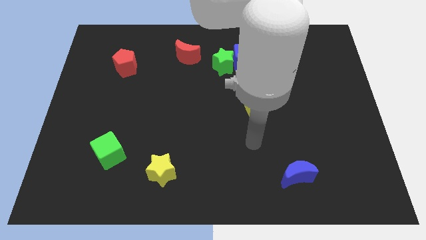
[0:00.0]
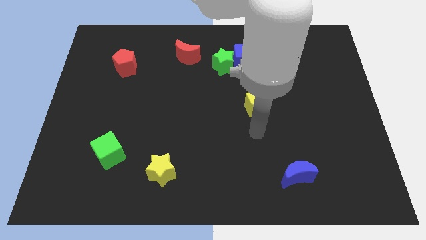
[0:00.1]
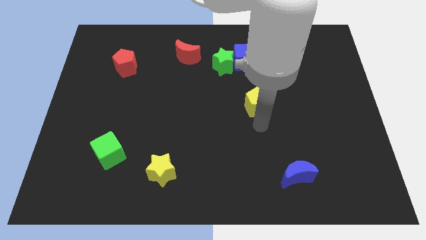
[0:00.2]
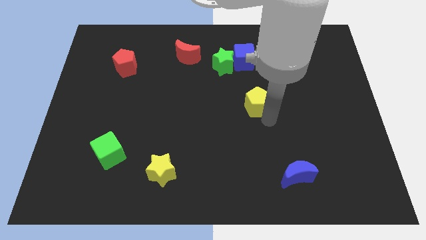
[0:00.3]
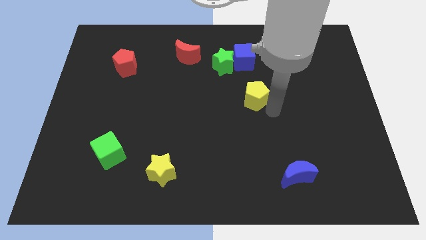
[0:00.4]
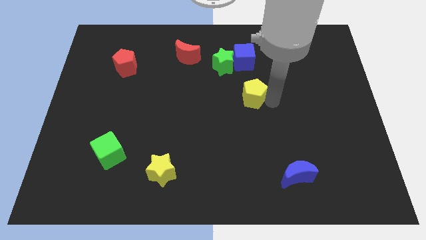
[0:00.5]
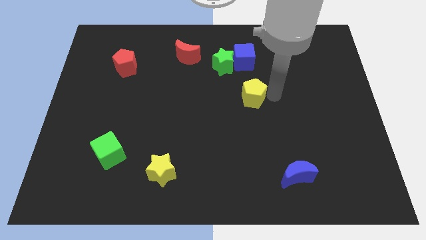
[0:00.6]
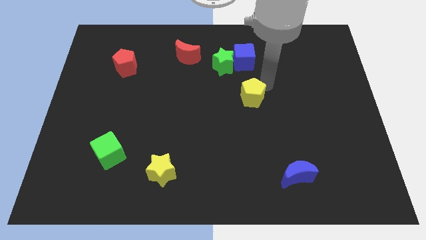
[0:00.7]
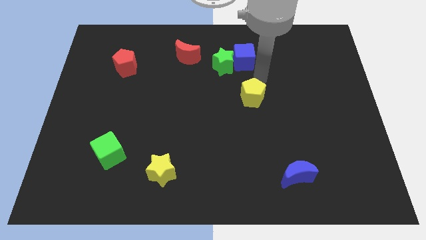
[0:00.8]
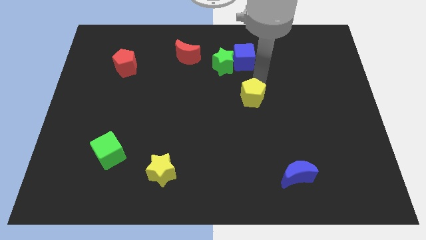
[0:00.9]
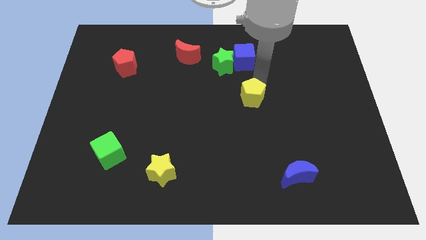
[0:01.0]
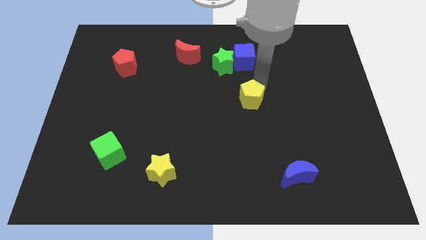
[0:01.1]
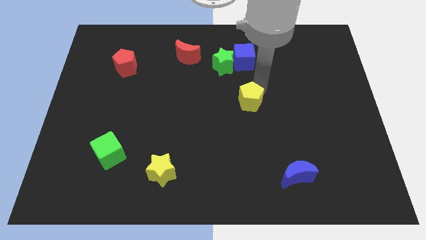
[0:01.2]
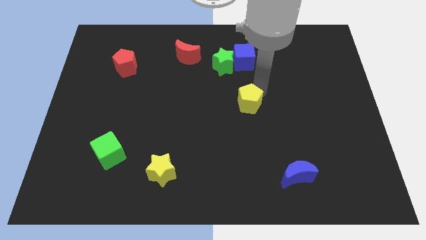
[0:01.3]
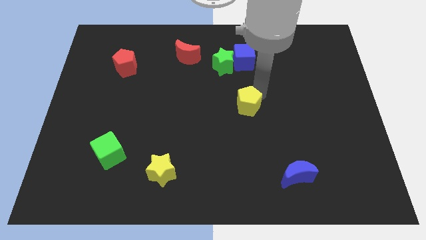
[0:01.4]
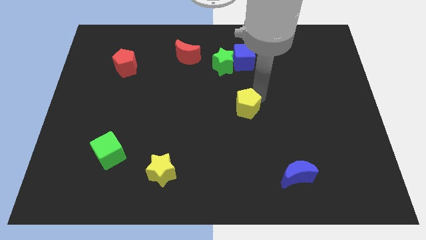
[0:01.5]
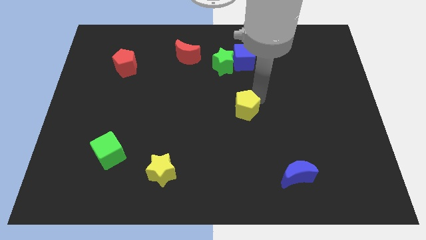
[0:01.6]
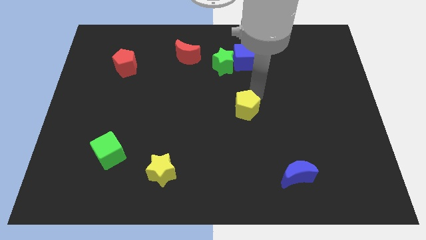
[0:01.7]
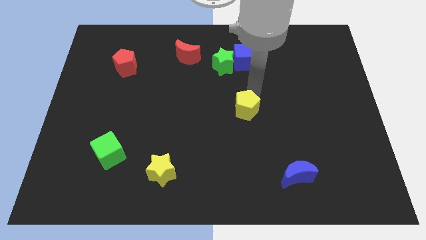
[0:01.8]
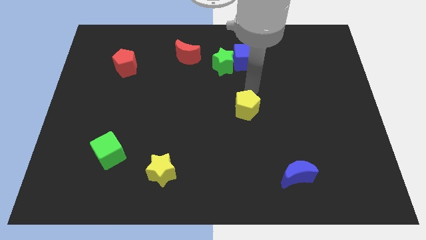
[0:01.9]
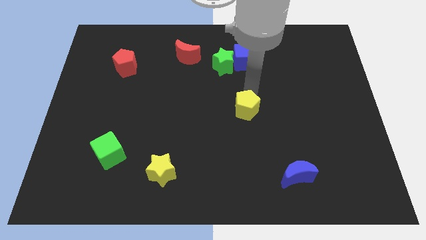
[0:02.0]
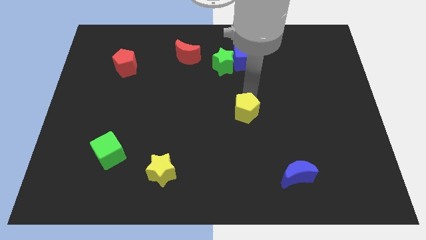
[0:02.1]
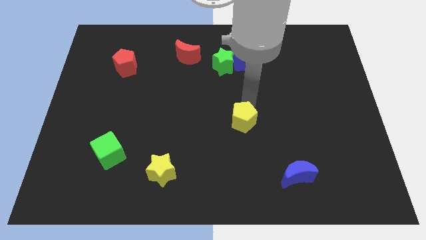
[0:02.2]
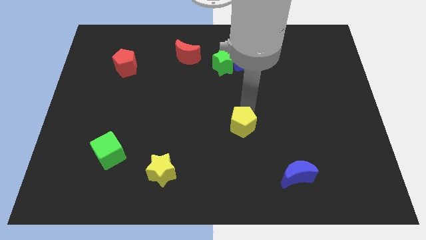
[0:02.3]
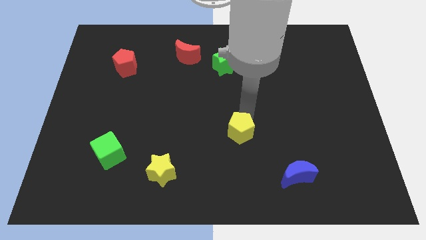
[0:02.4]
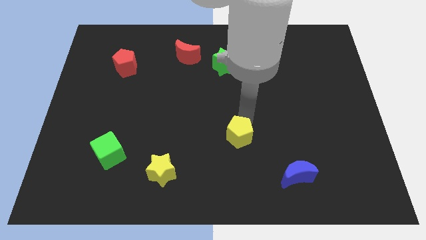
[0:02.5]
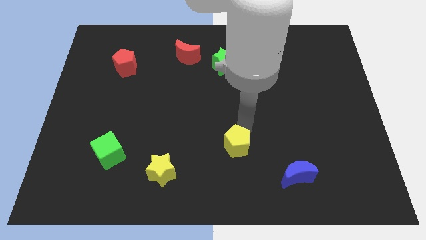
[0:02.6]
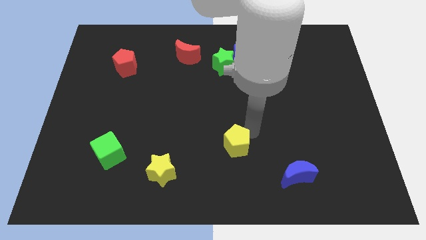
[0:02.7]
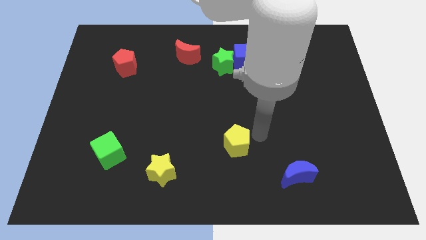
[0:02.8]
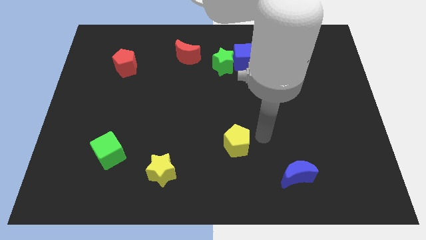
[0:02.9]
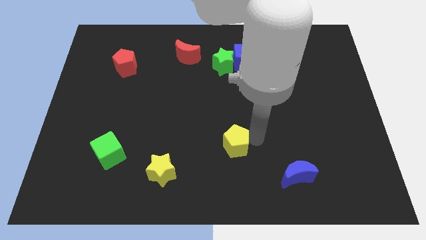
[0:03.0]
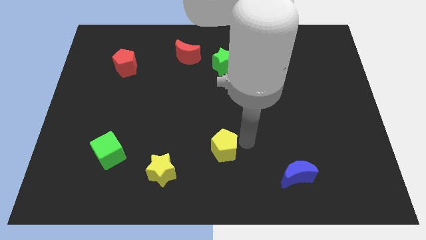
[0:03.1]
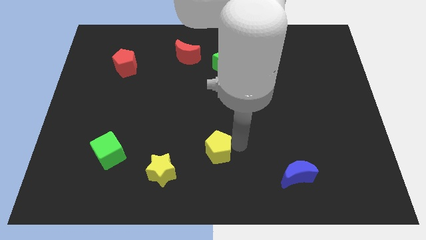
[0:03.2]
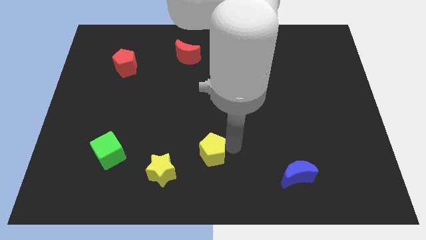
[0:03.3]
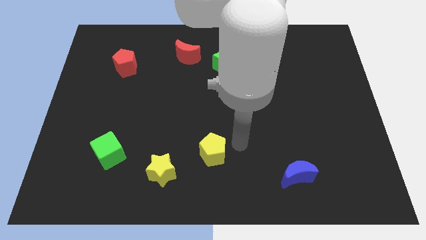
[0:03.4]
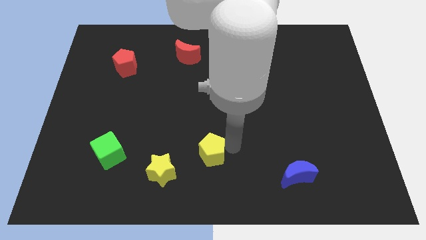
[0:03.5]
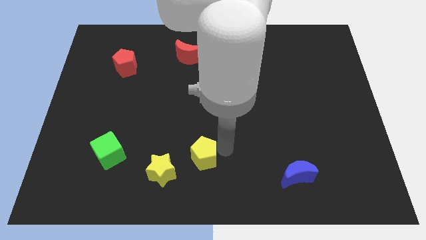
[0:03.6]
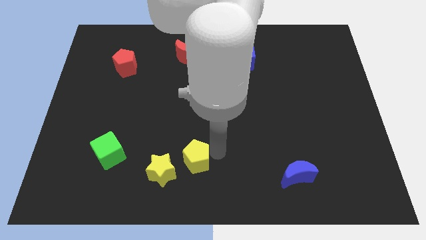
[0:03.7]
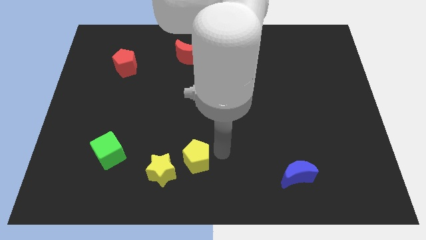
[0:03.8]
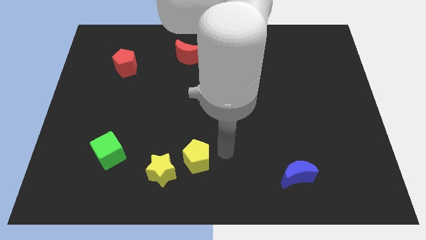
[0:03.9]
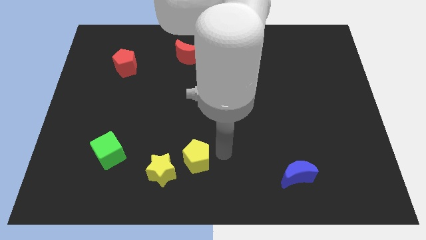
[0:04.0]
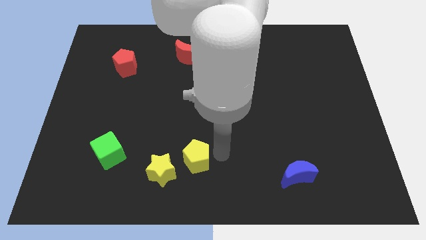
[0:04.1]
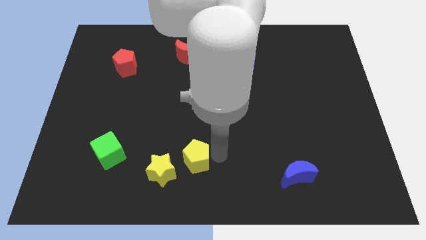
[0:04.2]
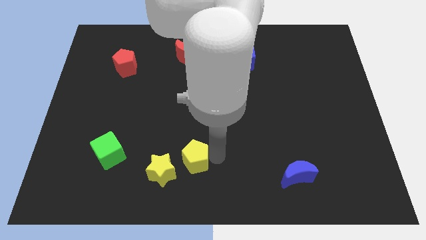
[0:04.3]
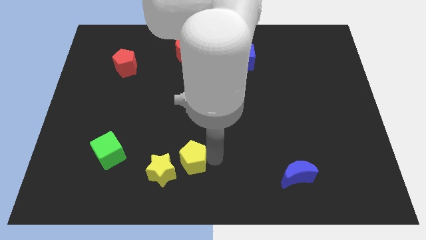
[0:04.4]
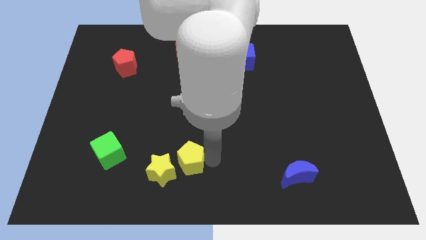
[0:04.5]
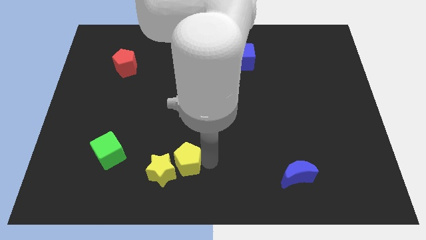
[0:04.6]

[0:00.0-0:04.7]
move the yellow pentagon towards the yellow star

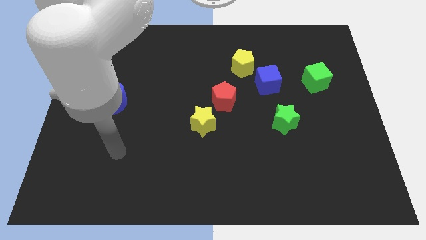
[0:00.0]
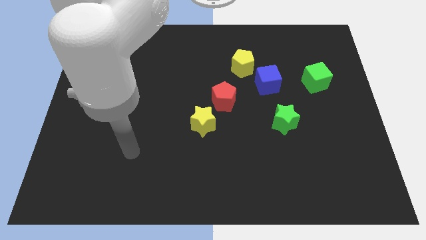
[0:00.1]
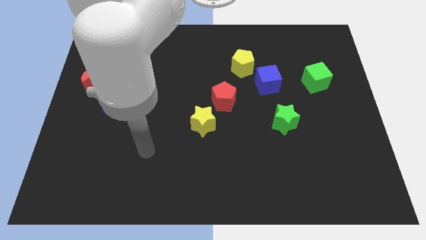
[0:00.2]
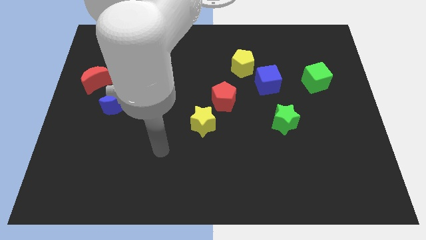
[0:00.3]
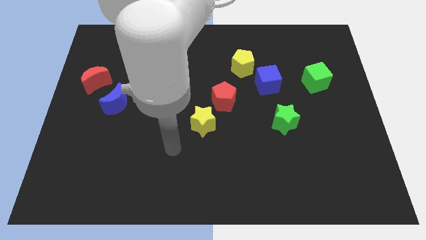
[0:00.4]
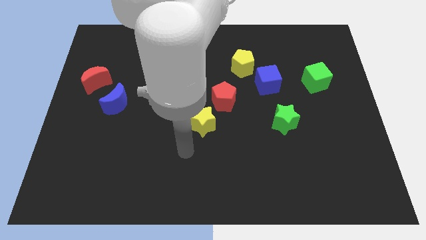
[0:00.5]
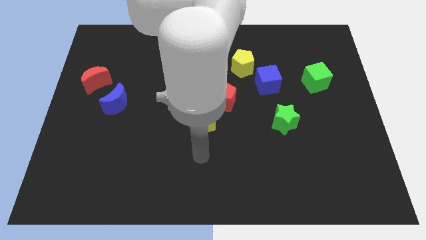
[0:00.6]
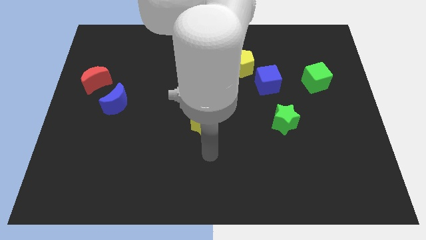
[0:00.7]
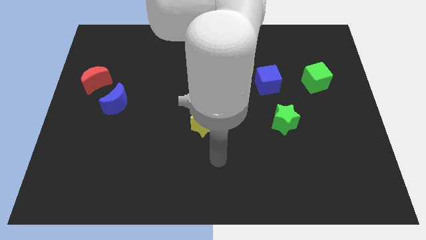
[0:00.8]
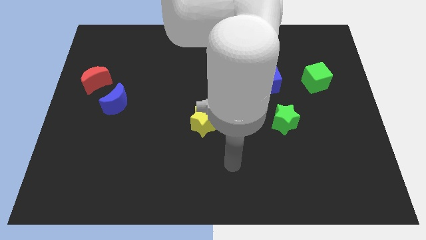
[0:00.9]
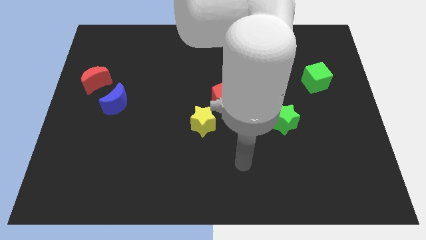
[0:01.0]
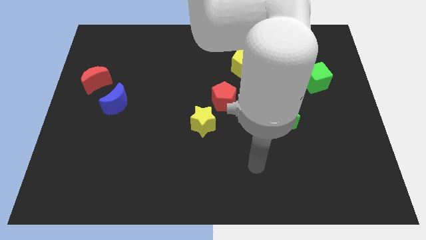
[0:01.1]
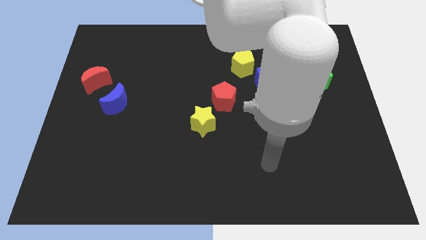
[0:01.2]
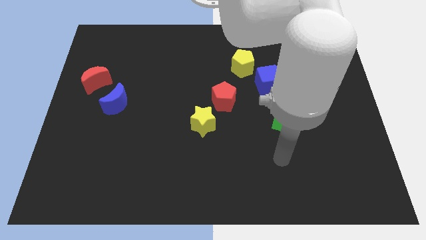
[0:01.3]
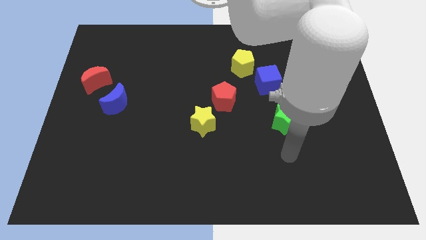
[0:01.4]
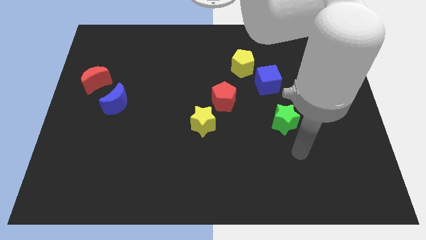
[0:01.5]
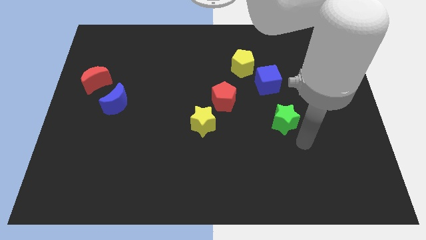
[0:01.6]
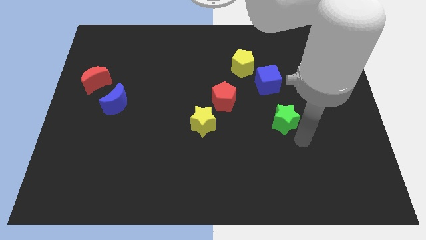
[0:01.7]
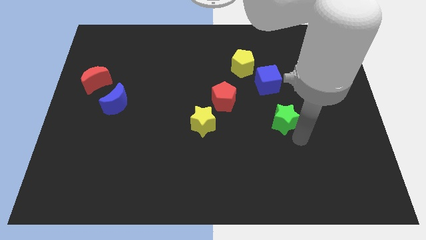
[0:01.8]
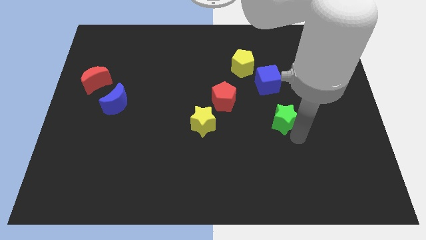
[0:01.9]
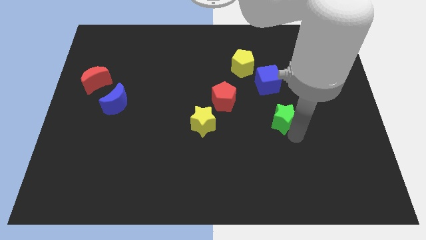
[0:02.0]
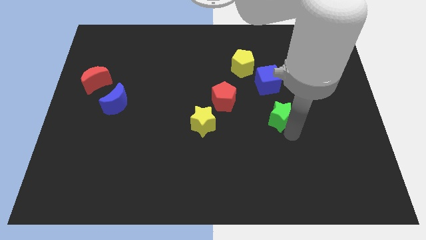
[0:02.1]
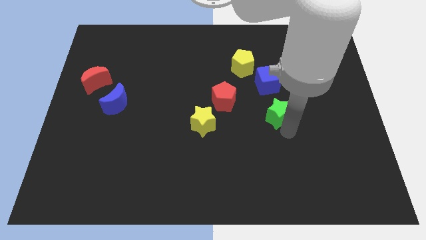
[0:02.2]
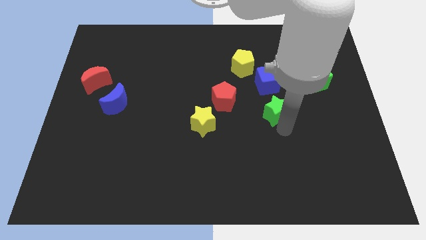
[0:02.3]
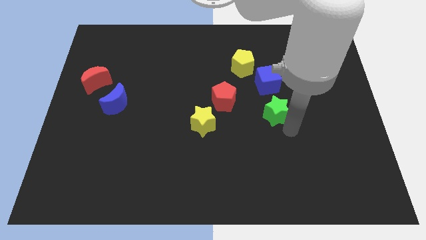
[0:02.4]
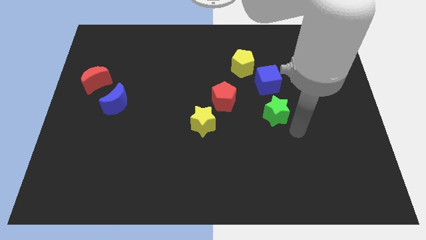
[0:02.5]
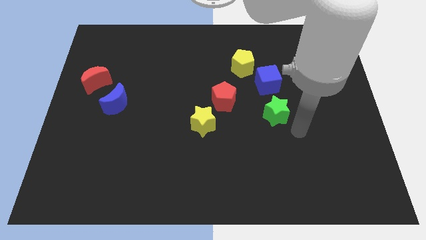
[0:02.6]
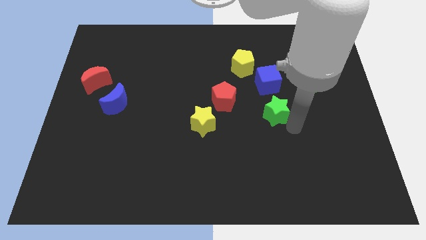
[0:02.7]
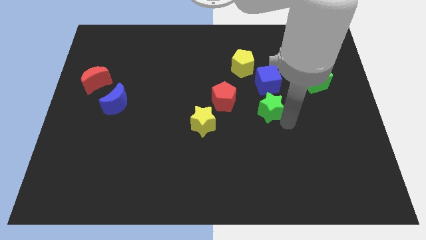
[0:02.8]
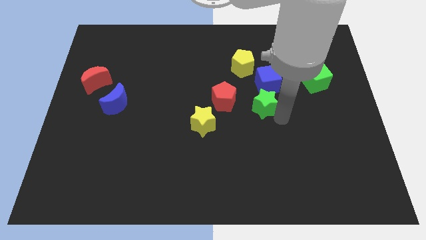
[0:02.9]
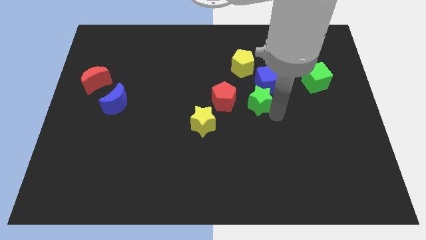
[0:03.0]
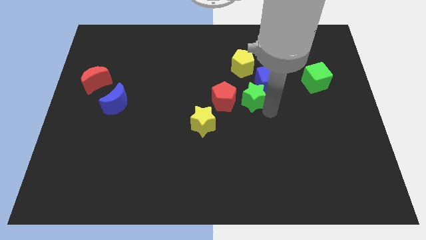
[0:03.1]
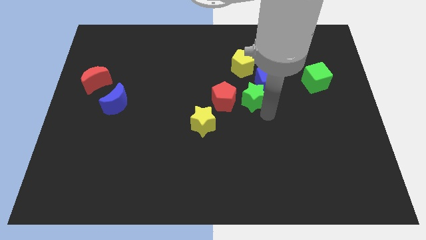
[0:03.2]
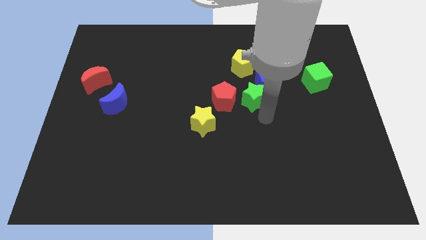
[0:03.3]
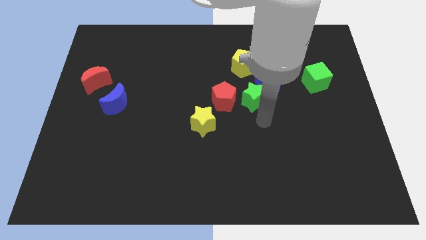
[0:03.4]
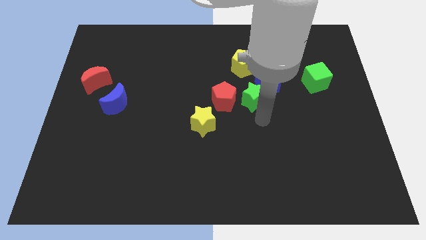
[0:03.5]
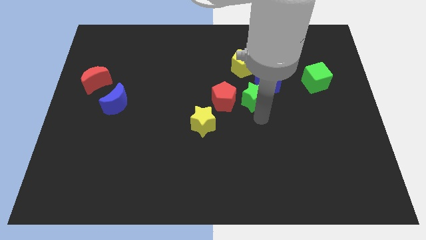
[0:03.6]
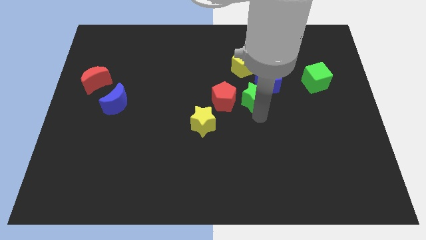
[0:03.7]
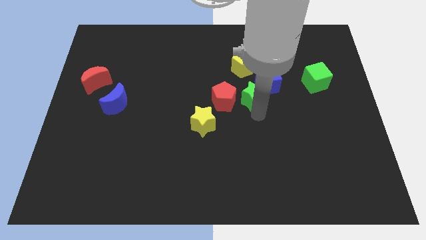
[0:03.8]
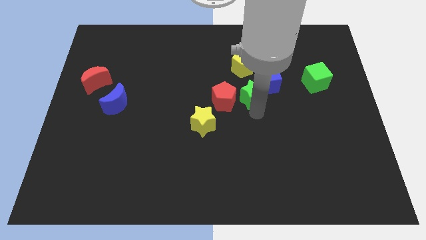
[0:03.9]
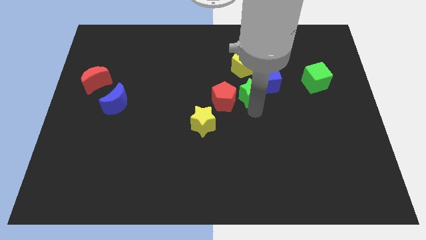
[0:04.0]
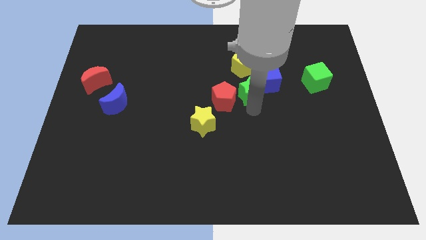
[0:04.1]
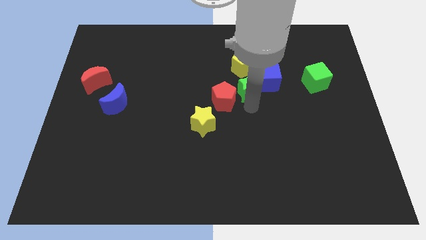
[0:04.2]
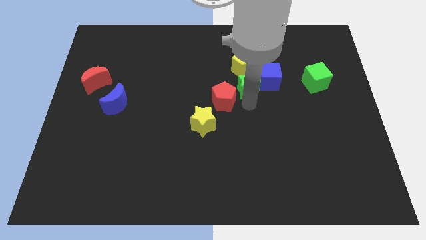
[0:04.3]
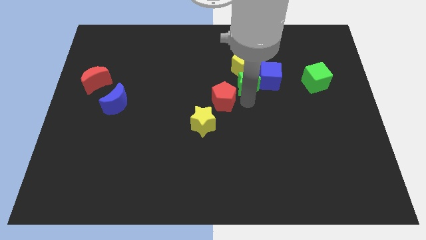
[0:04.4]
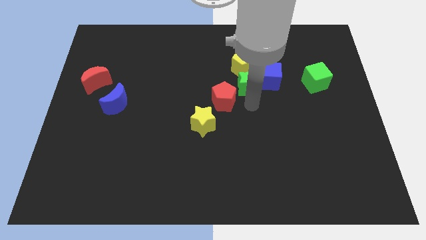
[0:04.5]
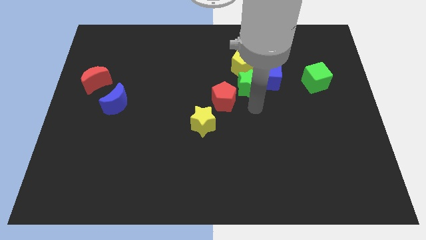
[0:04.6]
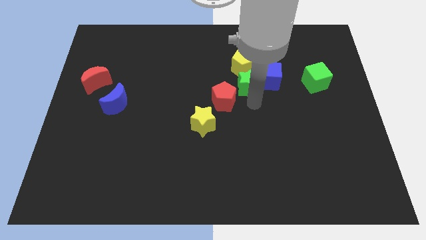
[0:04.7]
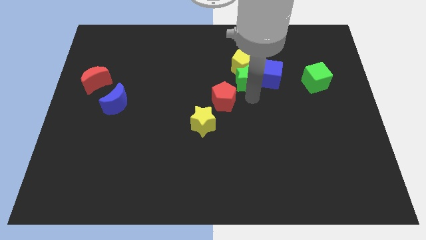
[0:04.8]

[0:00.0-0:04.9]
push the green star towards the yellow pentagon
